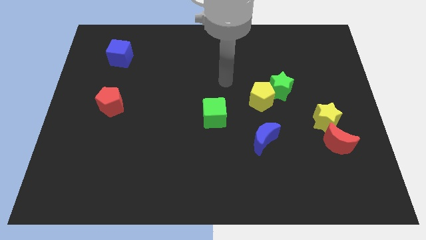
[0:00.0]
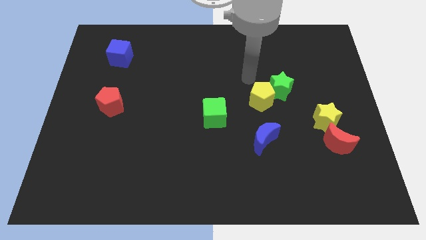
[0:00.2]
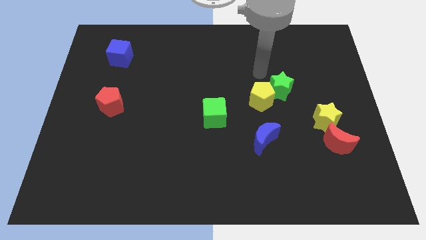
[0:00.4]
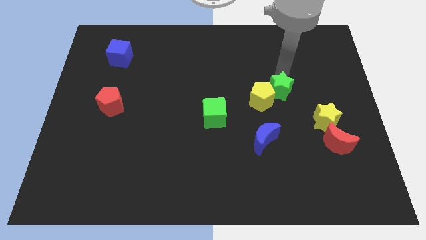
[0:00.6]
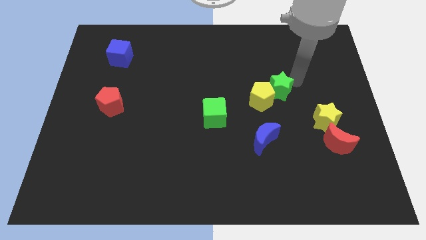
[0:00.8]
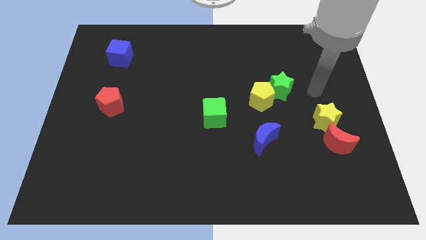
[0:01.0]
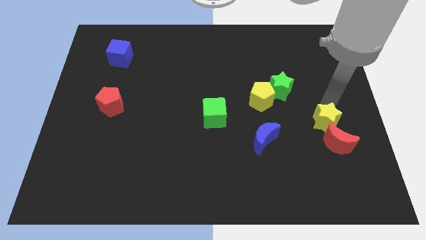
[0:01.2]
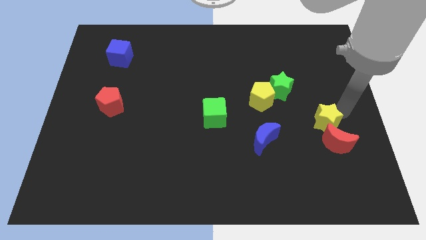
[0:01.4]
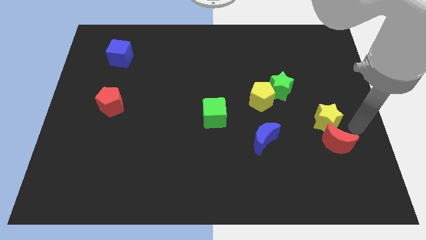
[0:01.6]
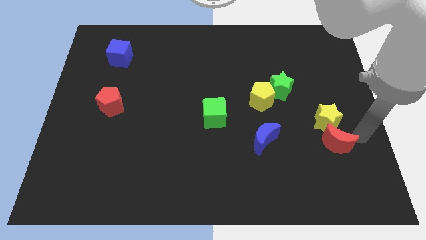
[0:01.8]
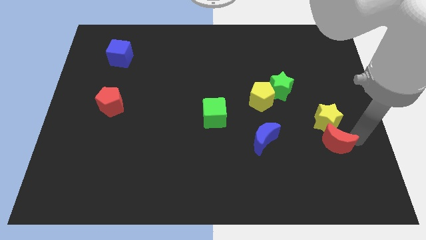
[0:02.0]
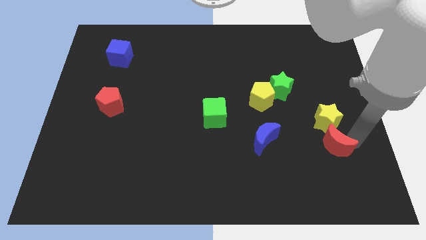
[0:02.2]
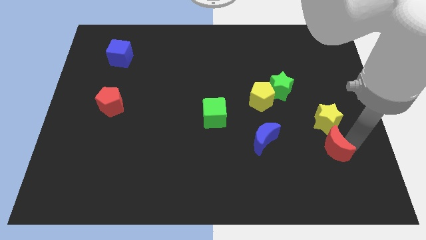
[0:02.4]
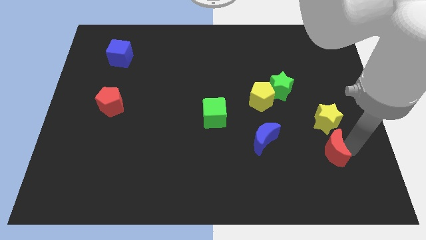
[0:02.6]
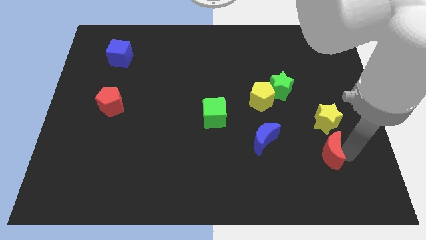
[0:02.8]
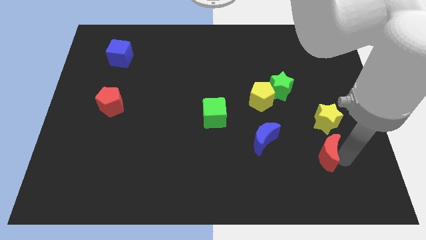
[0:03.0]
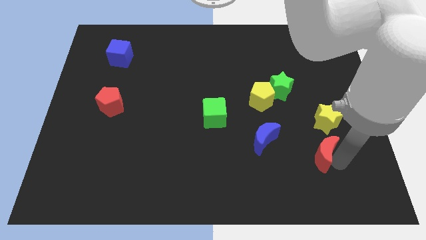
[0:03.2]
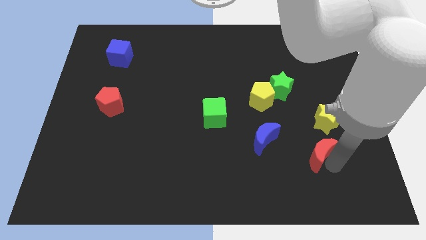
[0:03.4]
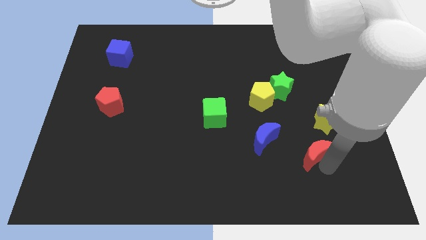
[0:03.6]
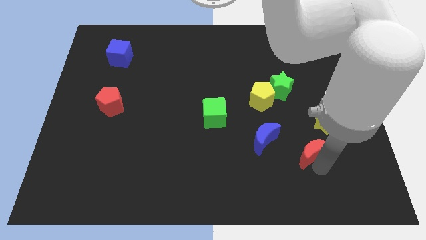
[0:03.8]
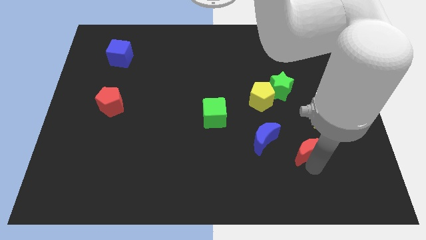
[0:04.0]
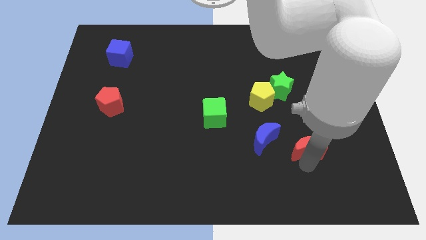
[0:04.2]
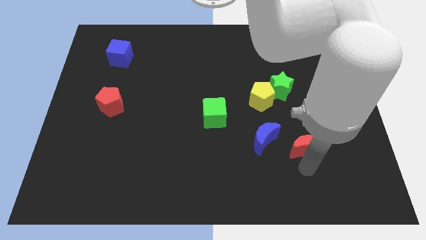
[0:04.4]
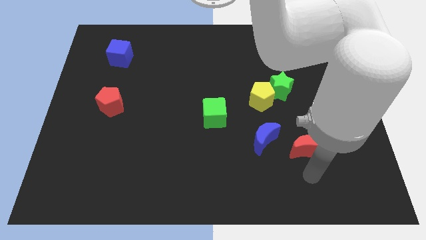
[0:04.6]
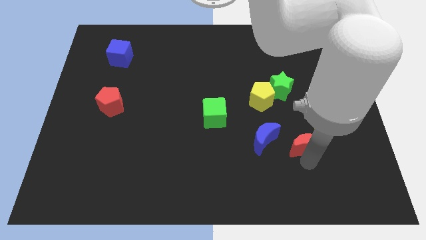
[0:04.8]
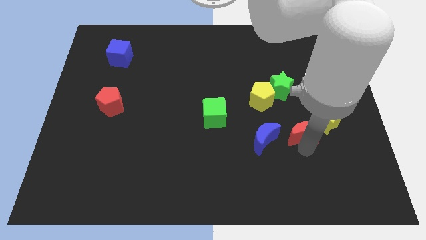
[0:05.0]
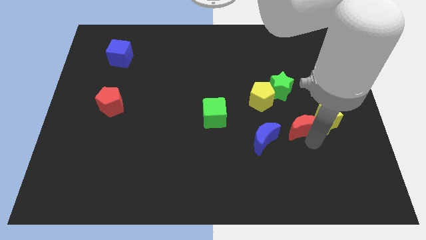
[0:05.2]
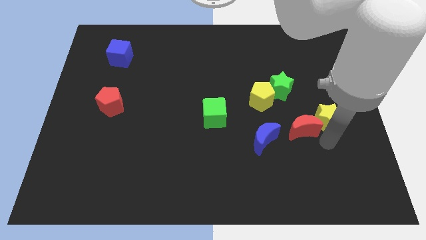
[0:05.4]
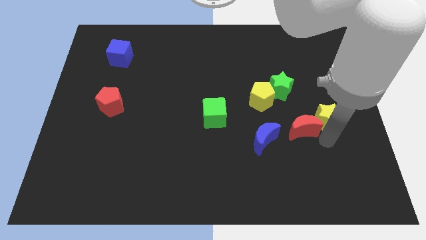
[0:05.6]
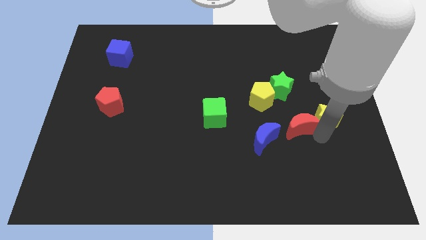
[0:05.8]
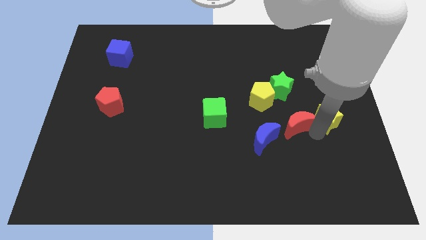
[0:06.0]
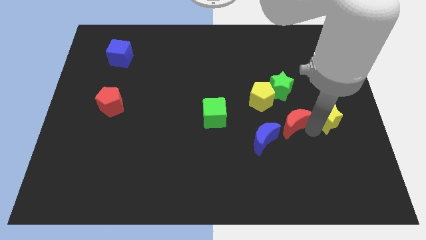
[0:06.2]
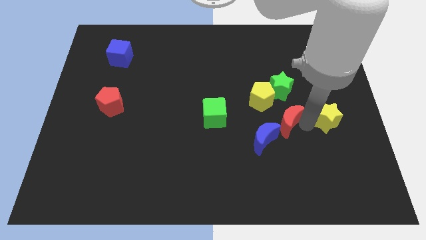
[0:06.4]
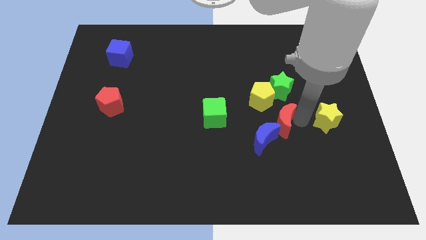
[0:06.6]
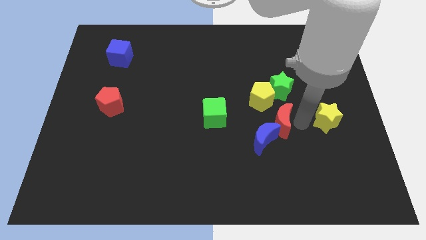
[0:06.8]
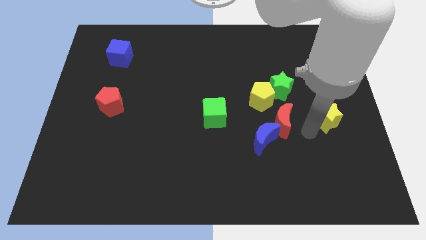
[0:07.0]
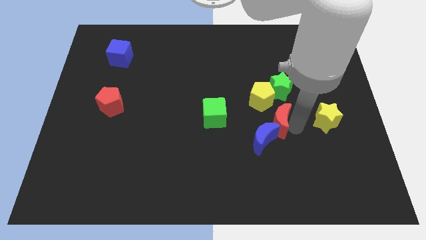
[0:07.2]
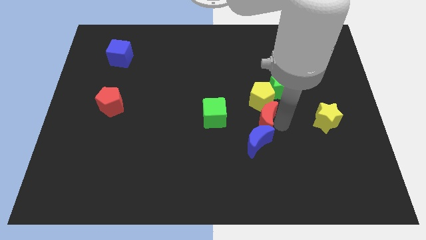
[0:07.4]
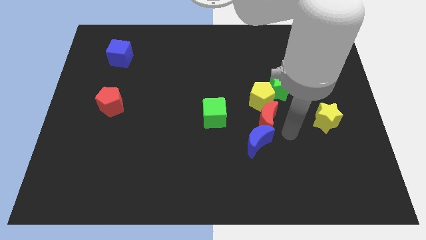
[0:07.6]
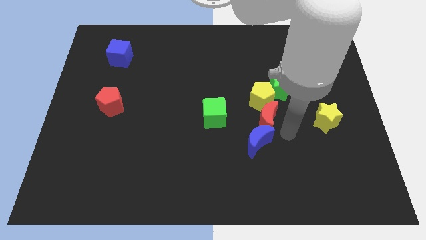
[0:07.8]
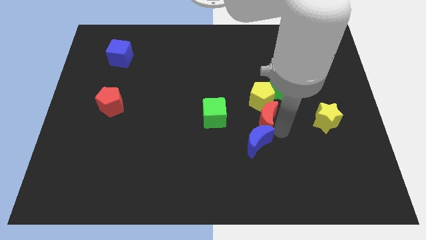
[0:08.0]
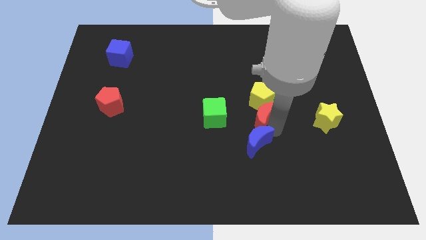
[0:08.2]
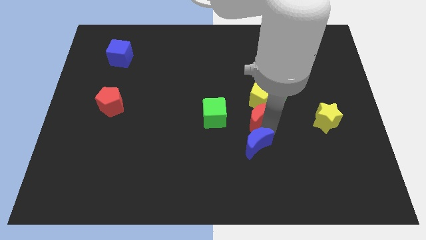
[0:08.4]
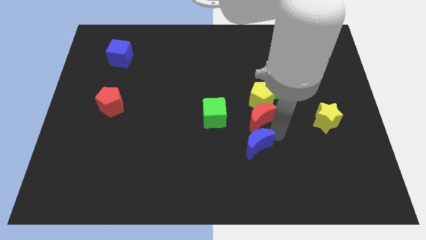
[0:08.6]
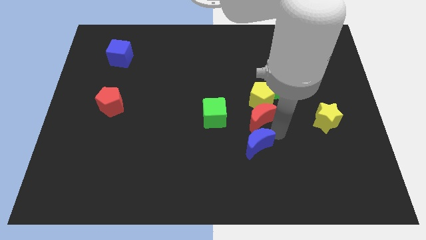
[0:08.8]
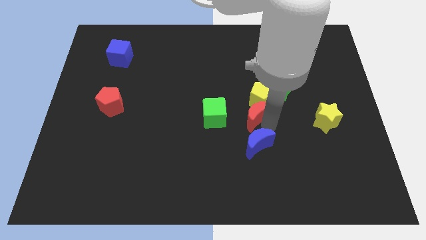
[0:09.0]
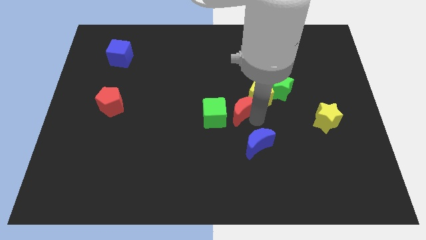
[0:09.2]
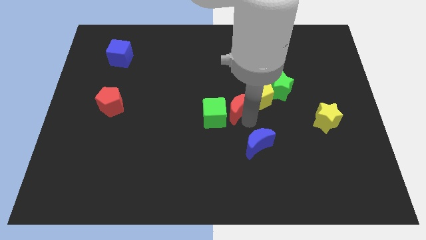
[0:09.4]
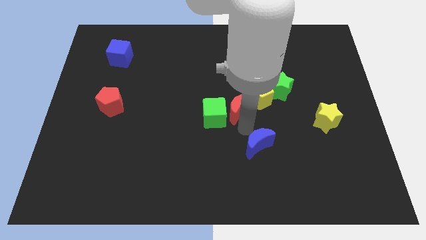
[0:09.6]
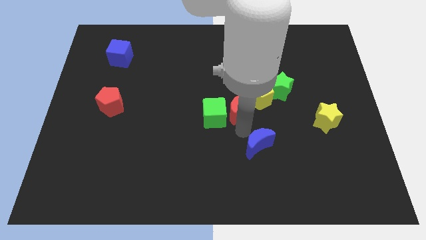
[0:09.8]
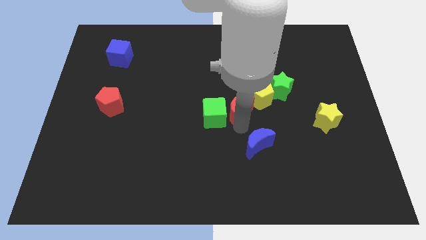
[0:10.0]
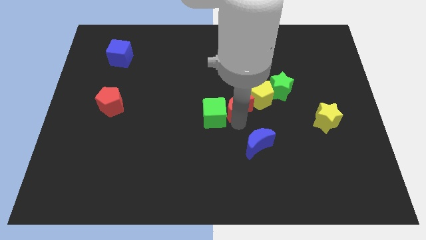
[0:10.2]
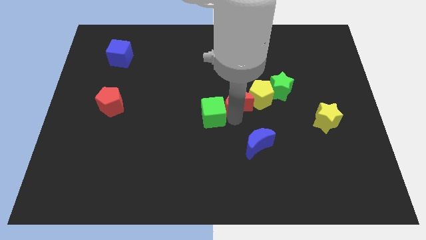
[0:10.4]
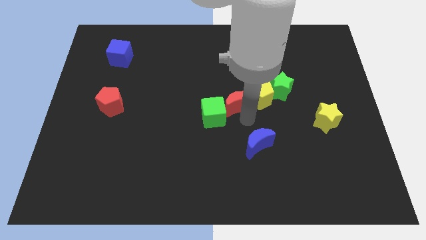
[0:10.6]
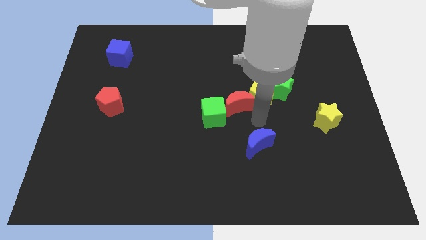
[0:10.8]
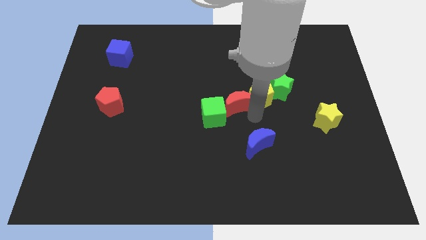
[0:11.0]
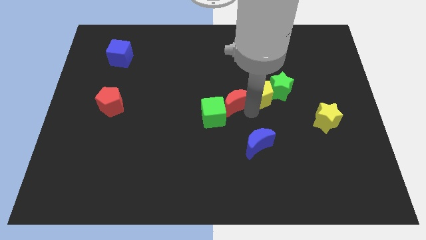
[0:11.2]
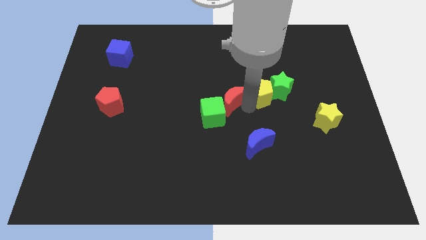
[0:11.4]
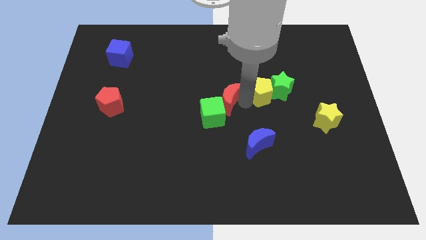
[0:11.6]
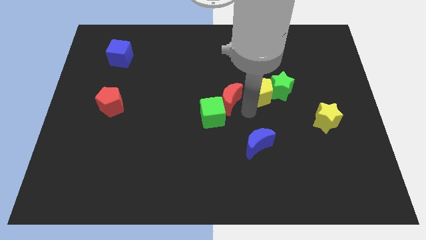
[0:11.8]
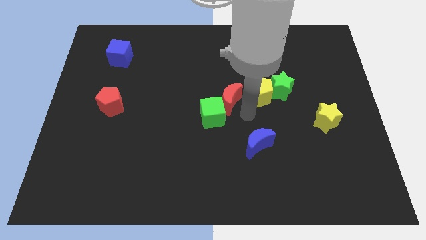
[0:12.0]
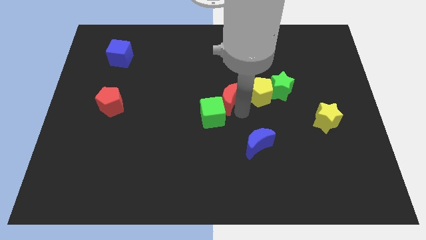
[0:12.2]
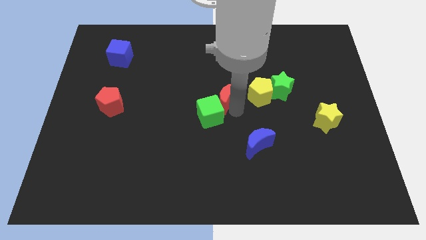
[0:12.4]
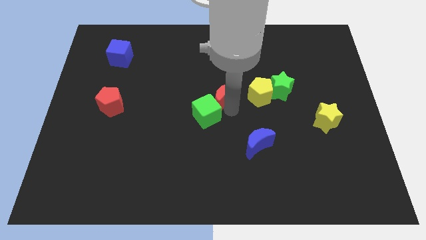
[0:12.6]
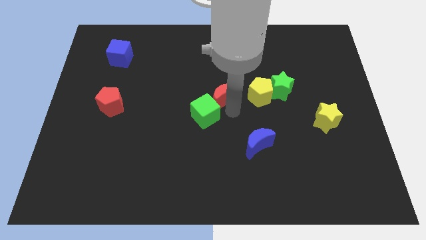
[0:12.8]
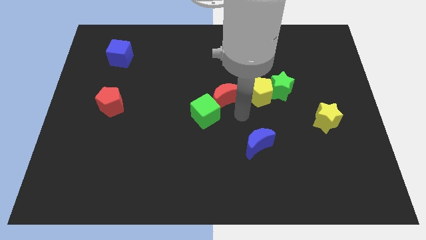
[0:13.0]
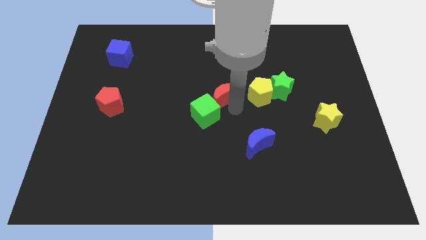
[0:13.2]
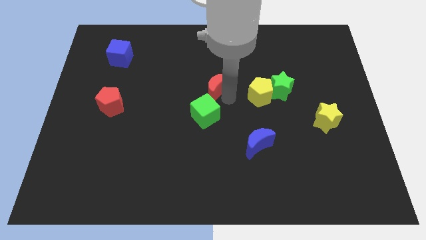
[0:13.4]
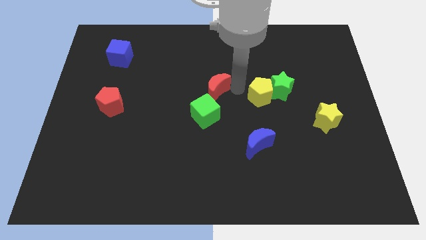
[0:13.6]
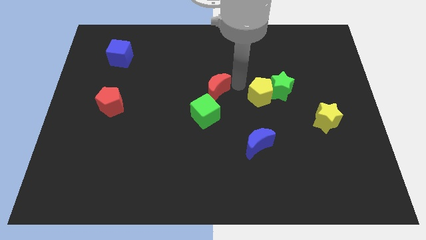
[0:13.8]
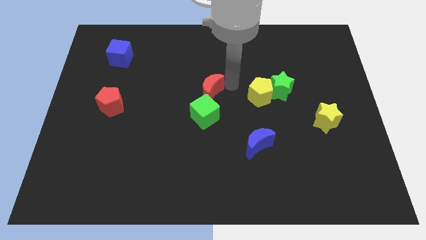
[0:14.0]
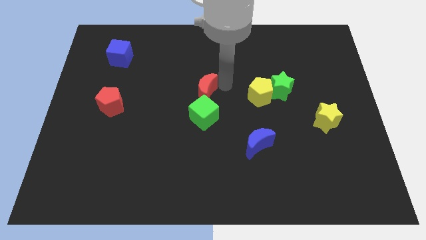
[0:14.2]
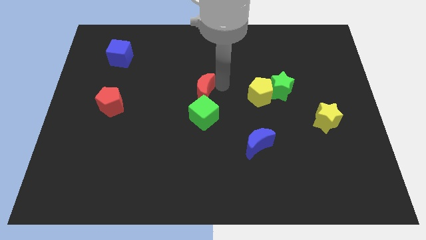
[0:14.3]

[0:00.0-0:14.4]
put the red moon diagonally up and to the left of the green cube
